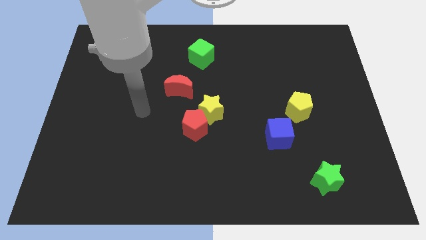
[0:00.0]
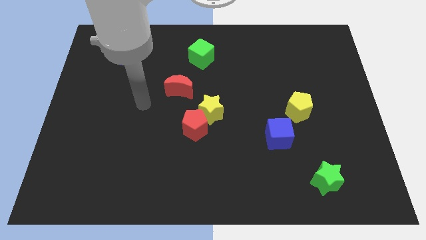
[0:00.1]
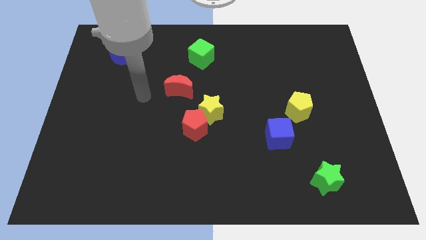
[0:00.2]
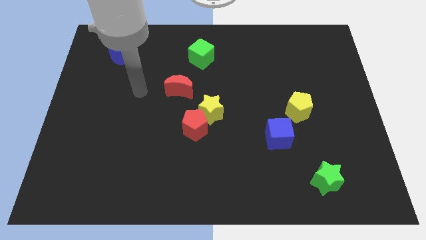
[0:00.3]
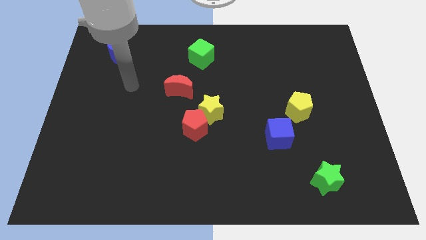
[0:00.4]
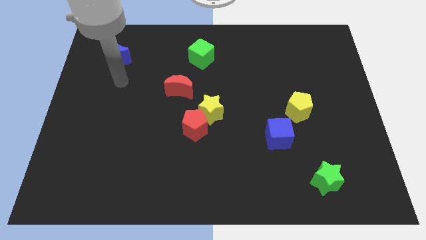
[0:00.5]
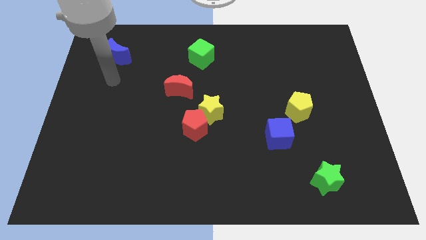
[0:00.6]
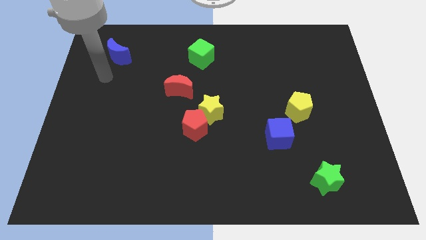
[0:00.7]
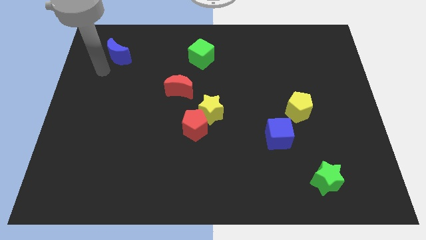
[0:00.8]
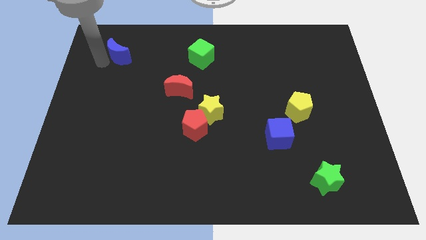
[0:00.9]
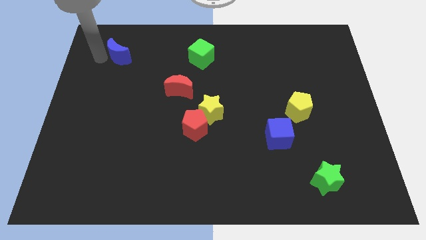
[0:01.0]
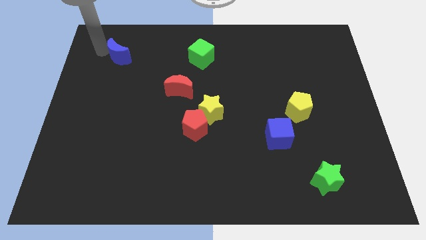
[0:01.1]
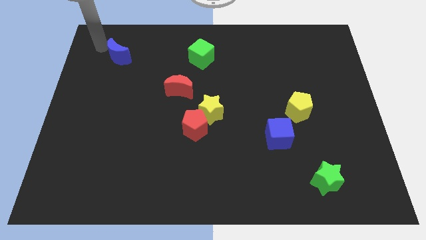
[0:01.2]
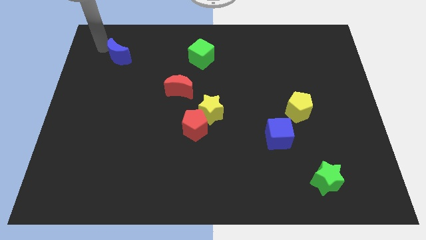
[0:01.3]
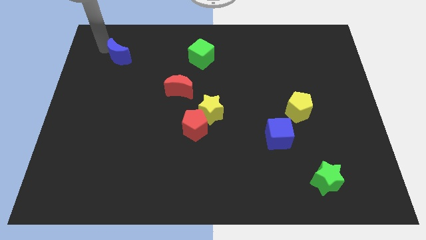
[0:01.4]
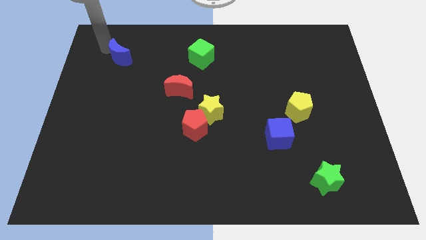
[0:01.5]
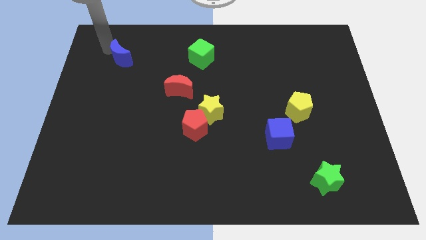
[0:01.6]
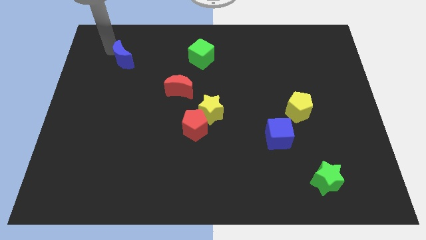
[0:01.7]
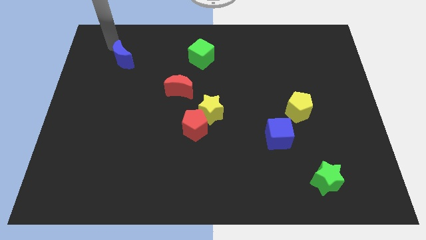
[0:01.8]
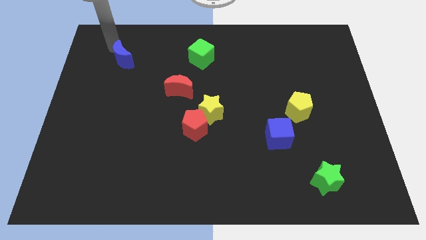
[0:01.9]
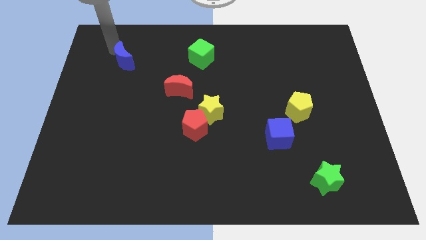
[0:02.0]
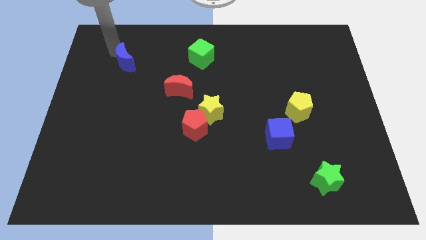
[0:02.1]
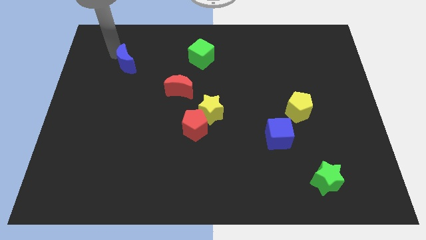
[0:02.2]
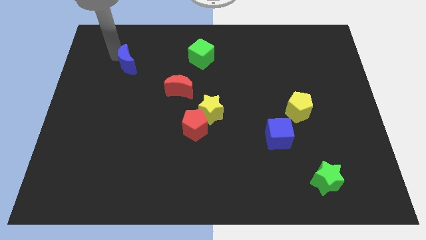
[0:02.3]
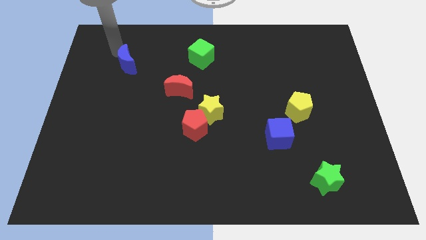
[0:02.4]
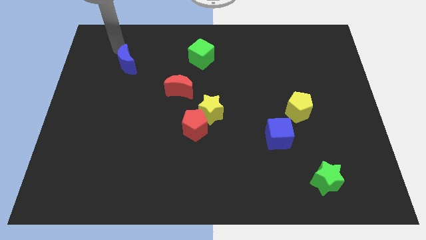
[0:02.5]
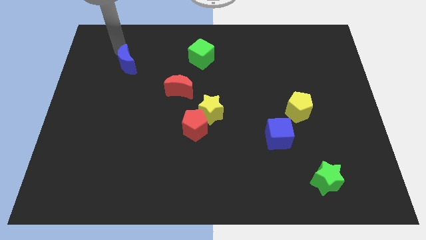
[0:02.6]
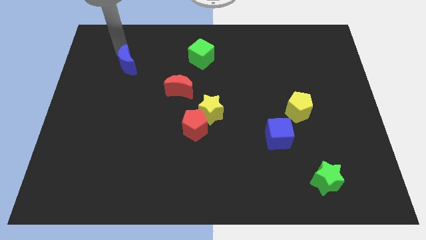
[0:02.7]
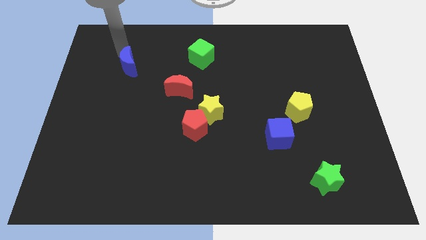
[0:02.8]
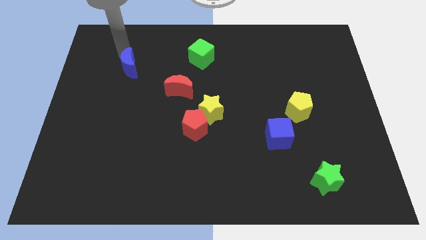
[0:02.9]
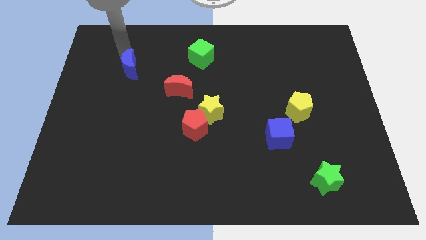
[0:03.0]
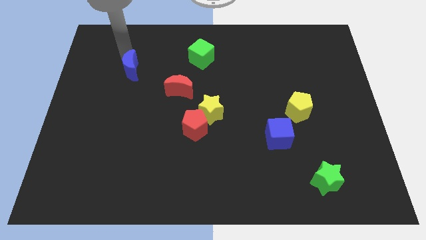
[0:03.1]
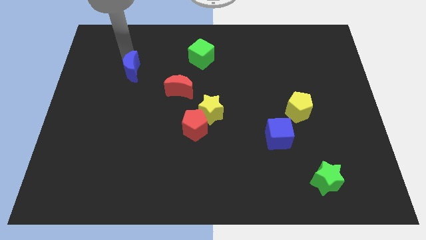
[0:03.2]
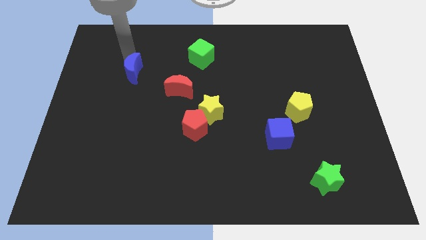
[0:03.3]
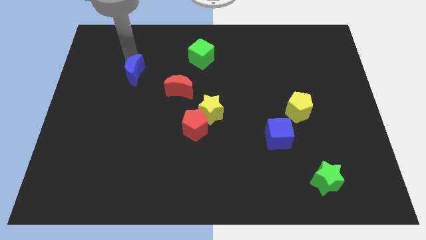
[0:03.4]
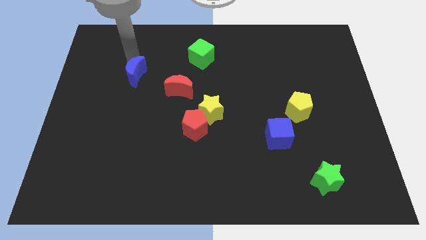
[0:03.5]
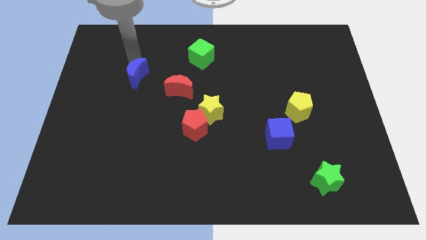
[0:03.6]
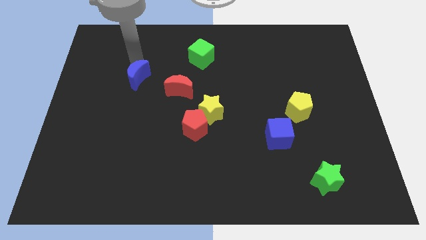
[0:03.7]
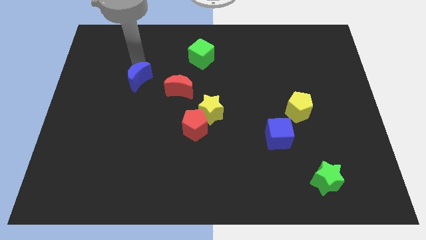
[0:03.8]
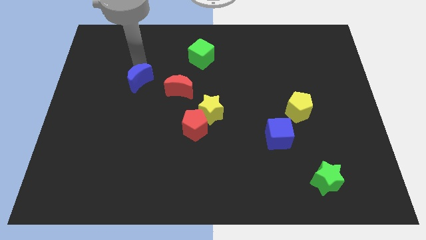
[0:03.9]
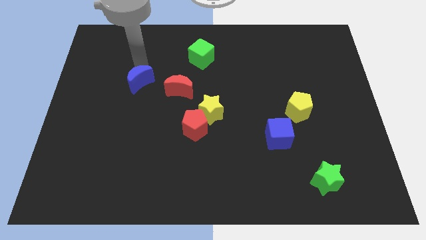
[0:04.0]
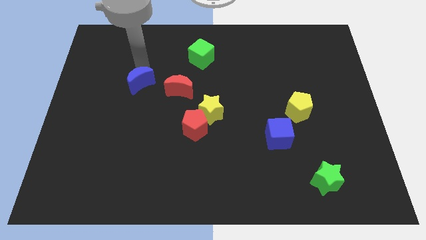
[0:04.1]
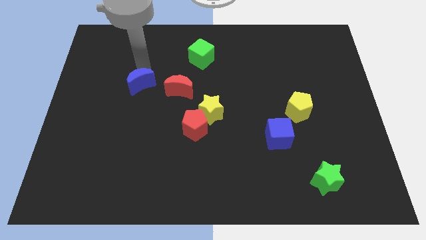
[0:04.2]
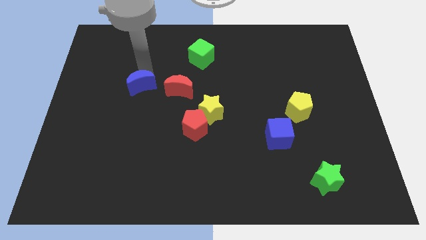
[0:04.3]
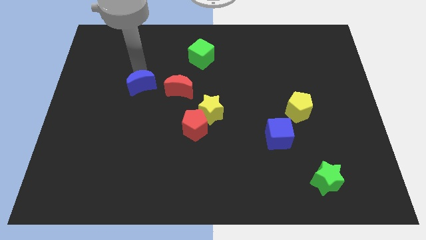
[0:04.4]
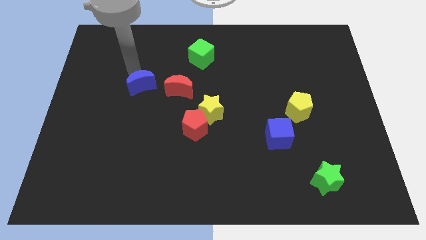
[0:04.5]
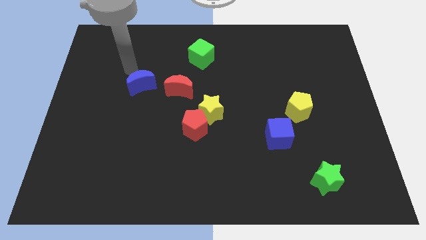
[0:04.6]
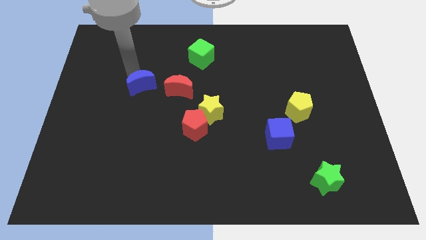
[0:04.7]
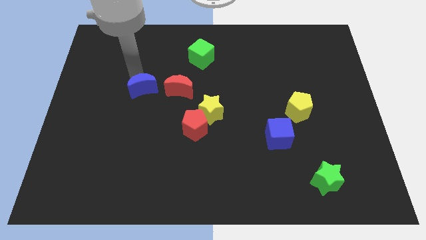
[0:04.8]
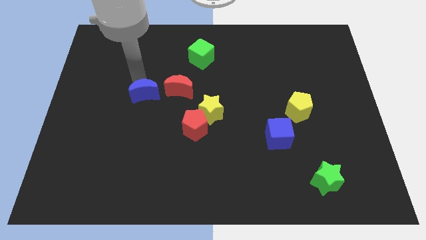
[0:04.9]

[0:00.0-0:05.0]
move the blue moon to the bottom left of the red moon

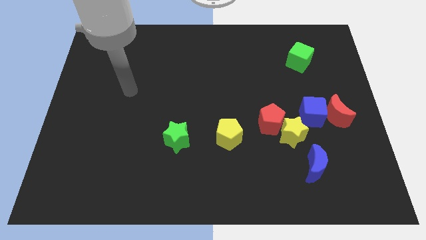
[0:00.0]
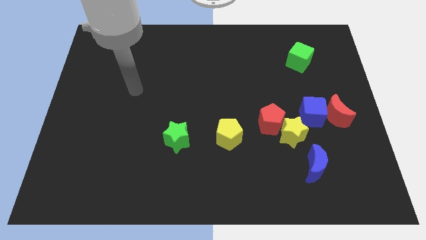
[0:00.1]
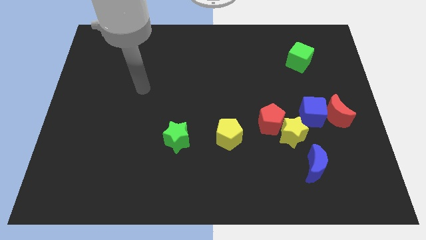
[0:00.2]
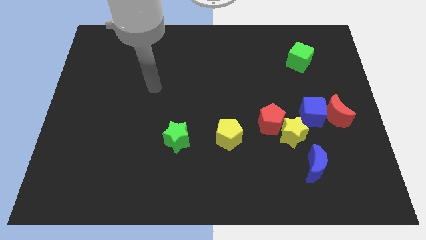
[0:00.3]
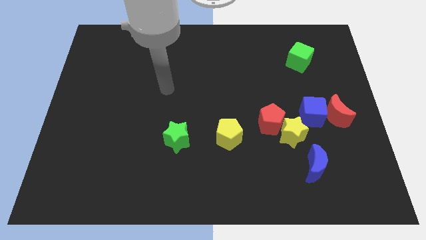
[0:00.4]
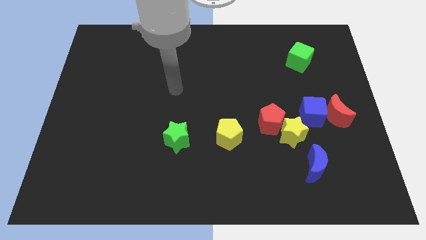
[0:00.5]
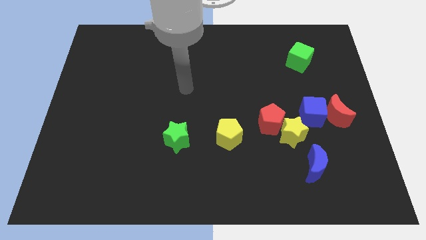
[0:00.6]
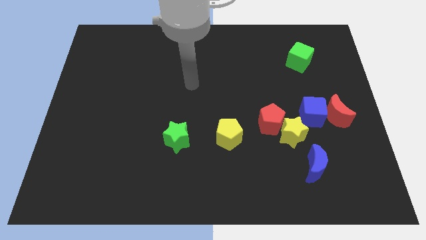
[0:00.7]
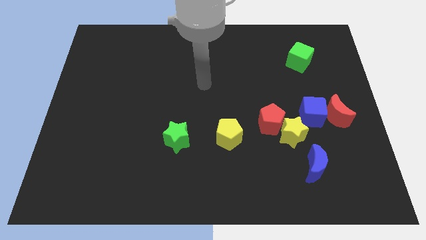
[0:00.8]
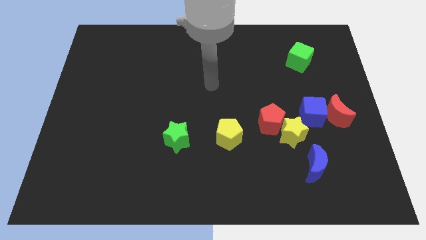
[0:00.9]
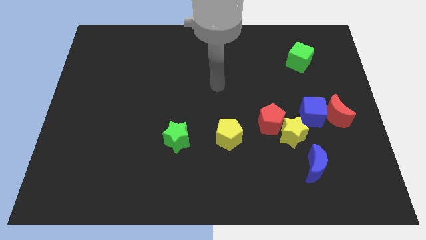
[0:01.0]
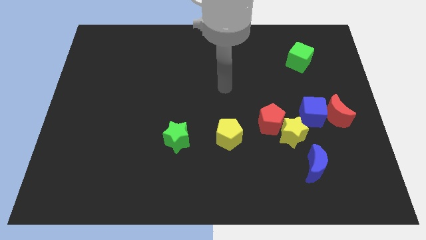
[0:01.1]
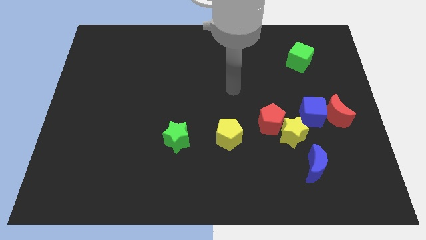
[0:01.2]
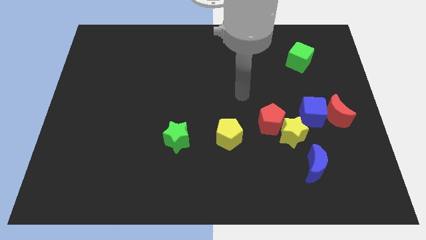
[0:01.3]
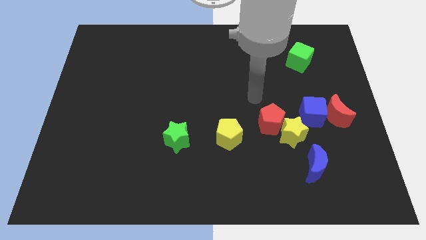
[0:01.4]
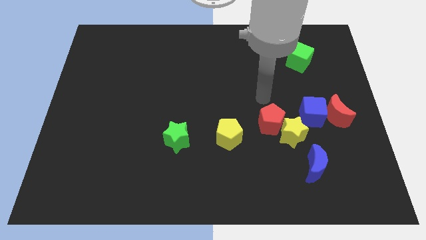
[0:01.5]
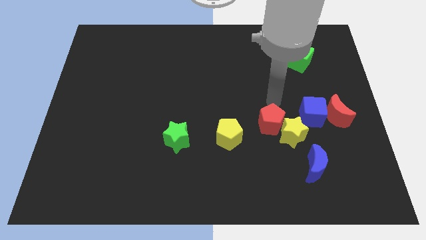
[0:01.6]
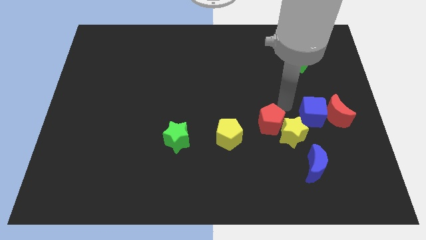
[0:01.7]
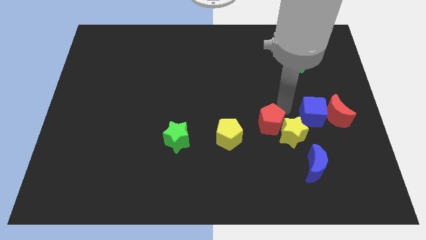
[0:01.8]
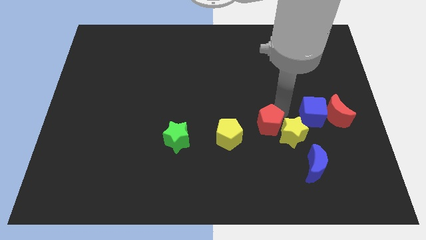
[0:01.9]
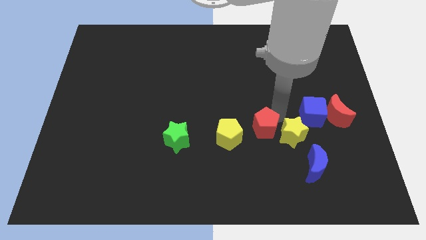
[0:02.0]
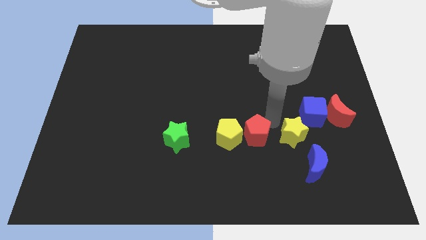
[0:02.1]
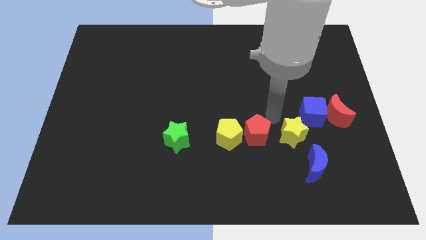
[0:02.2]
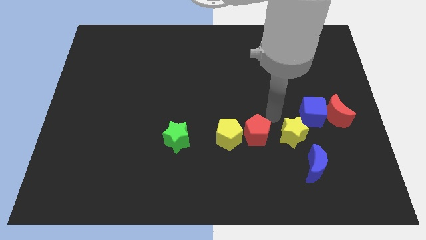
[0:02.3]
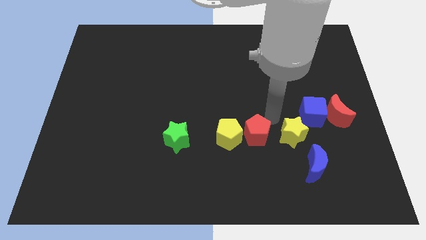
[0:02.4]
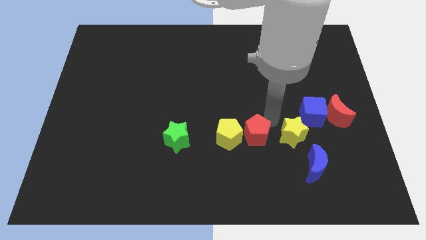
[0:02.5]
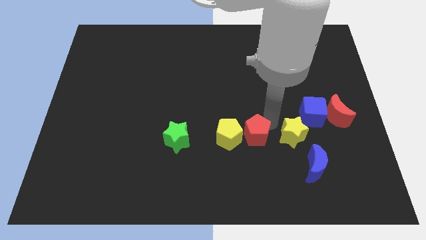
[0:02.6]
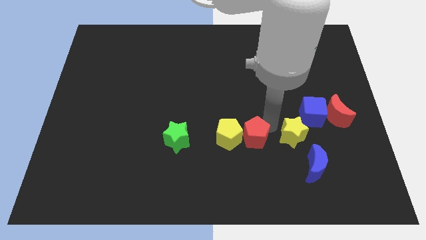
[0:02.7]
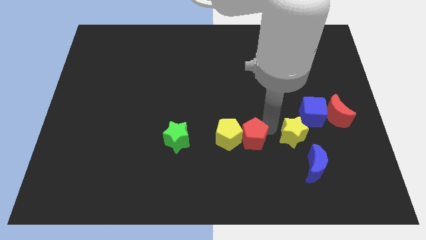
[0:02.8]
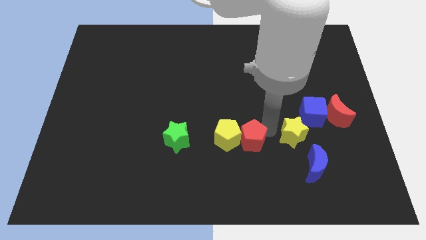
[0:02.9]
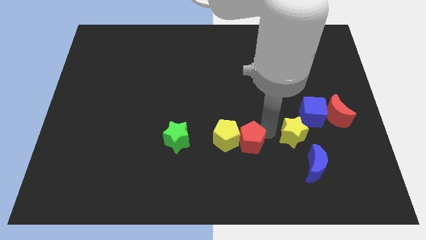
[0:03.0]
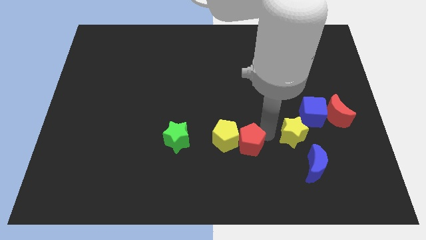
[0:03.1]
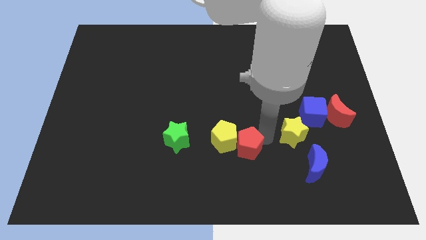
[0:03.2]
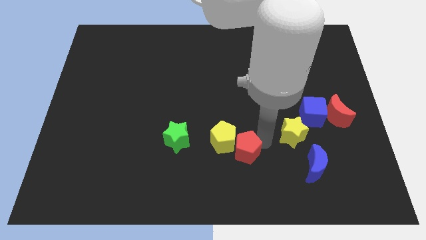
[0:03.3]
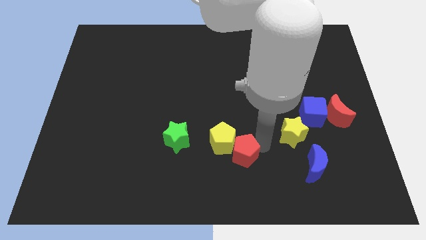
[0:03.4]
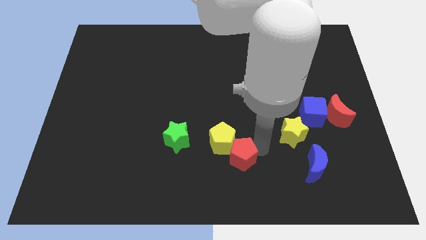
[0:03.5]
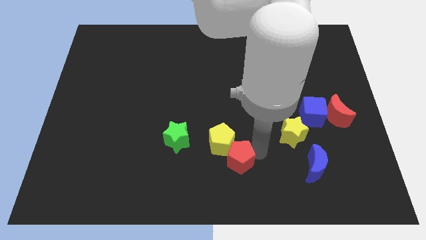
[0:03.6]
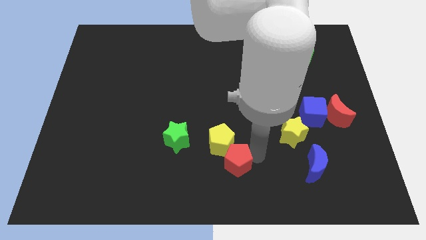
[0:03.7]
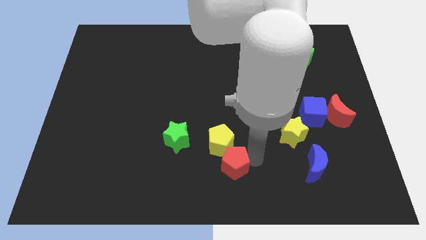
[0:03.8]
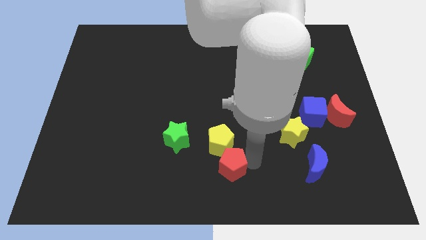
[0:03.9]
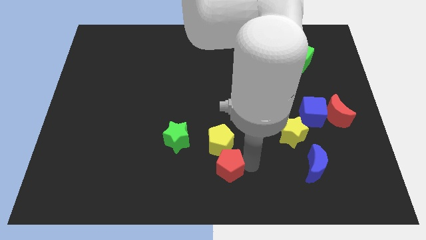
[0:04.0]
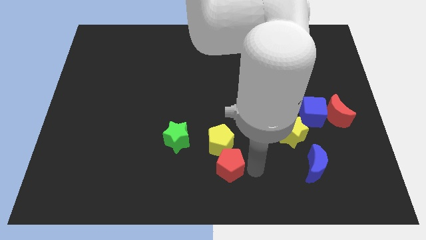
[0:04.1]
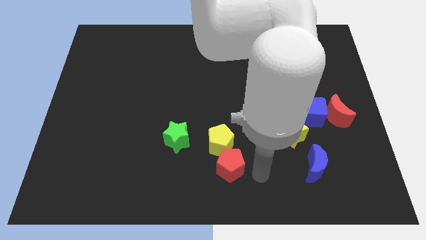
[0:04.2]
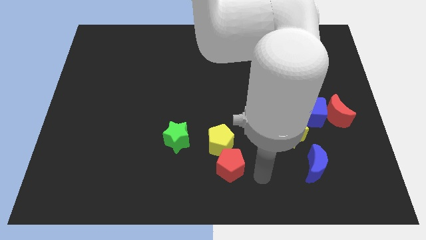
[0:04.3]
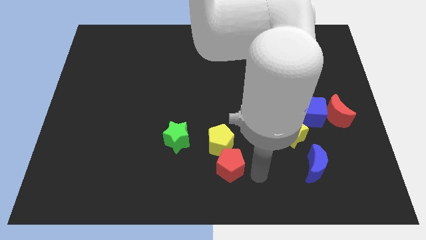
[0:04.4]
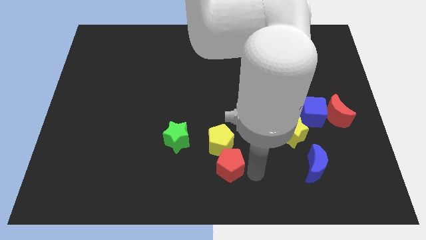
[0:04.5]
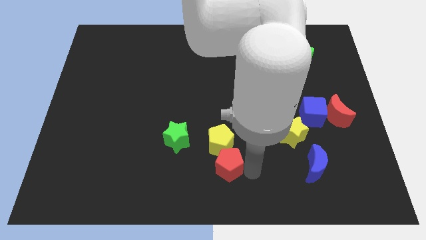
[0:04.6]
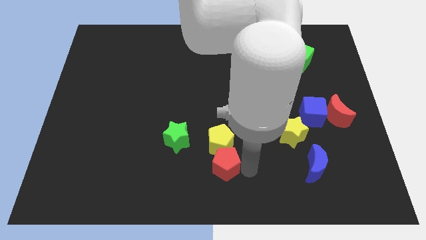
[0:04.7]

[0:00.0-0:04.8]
slide the red pentagon diagonally down and to the right of the green star
